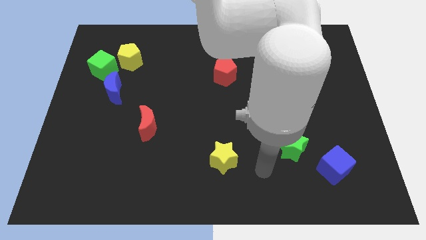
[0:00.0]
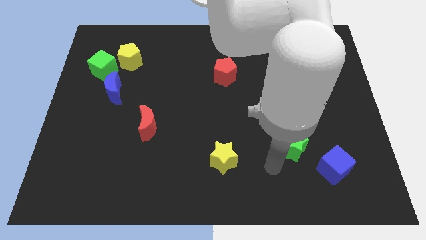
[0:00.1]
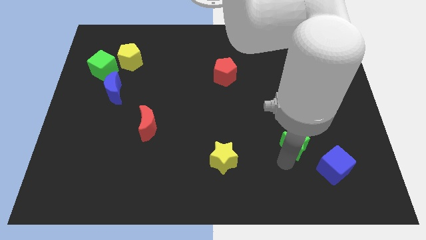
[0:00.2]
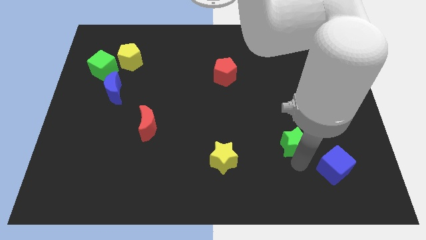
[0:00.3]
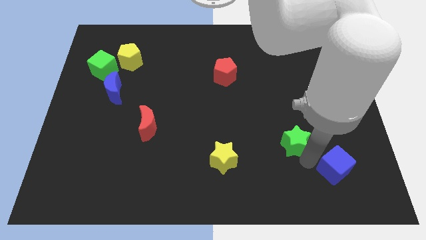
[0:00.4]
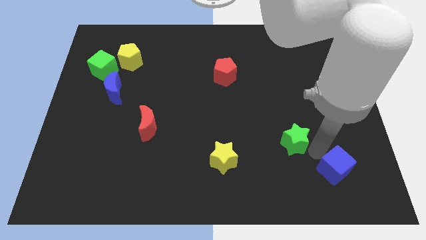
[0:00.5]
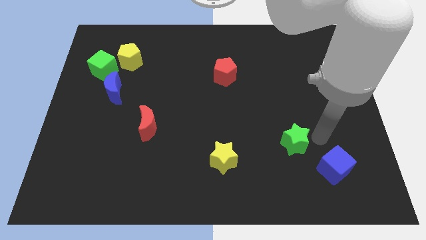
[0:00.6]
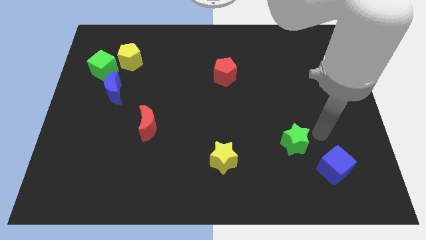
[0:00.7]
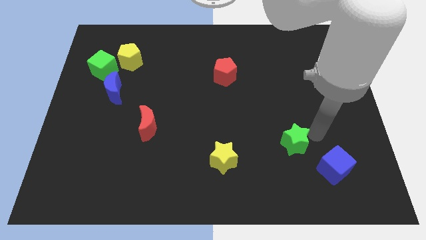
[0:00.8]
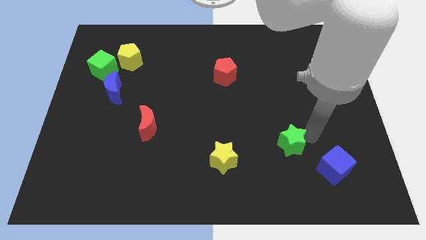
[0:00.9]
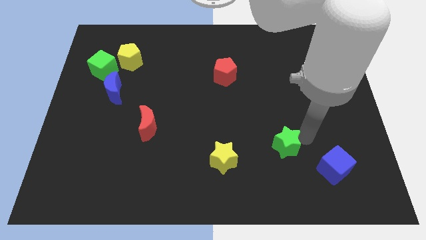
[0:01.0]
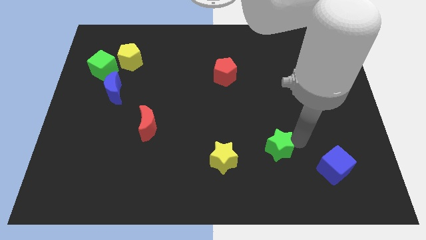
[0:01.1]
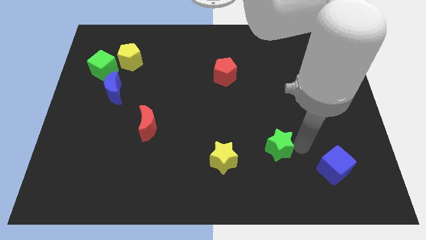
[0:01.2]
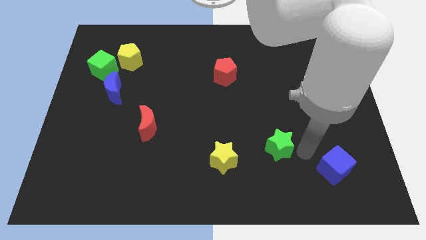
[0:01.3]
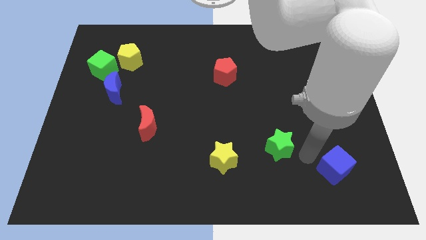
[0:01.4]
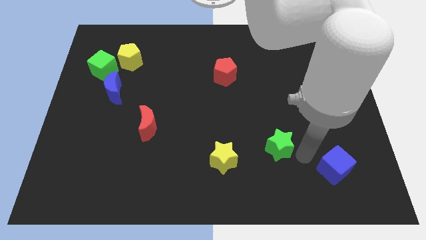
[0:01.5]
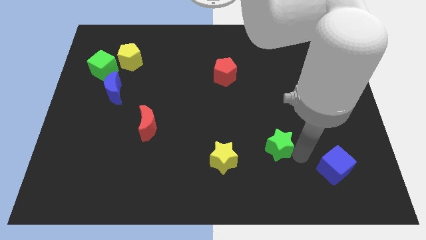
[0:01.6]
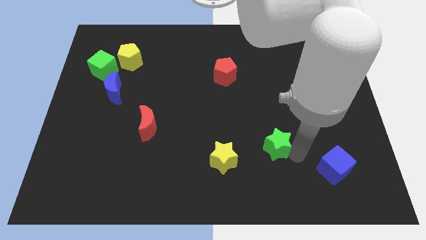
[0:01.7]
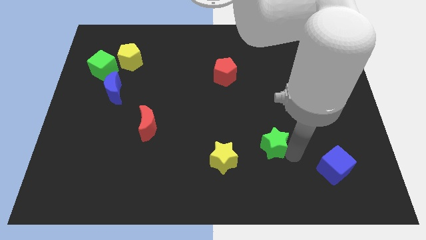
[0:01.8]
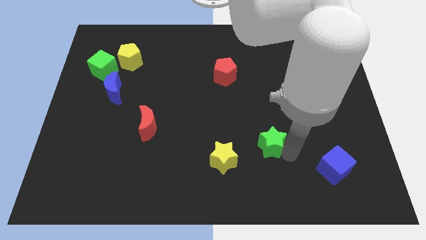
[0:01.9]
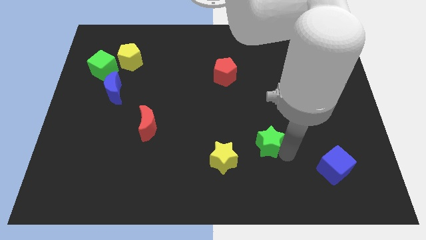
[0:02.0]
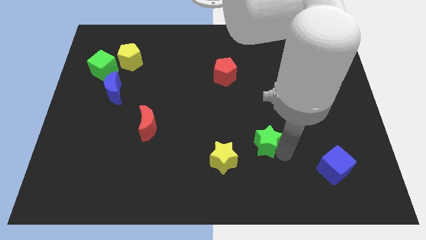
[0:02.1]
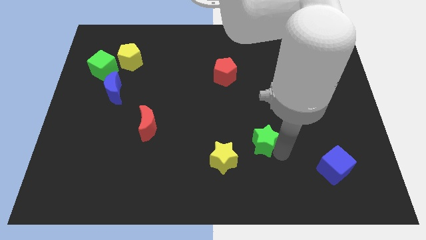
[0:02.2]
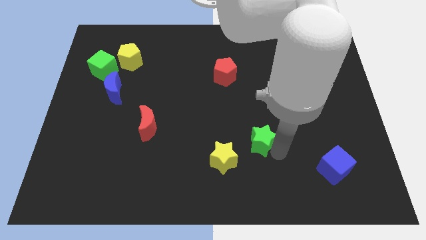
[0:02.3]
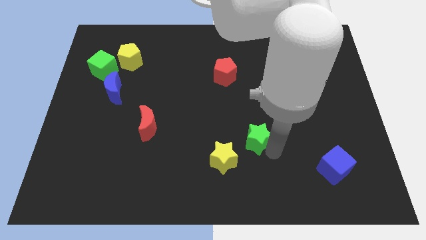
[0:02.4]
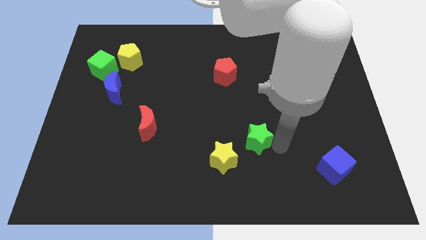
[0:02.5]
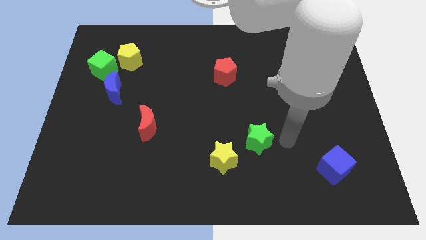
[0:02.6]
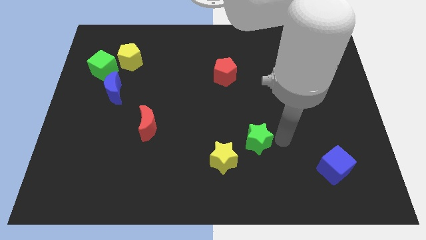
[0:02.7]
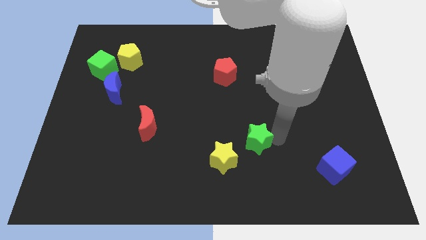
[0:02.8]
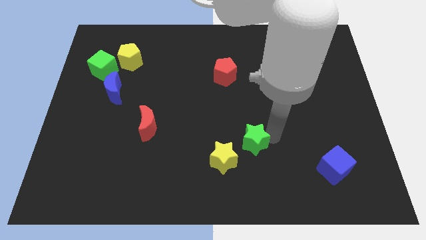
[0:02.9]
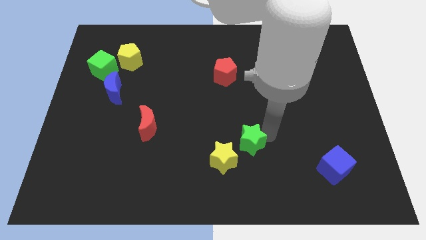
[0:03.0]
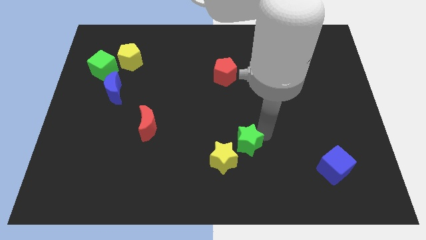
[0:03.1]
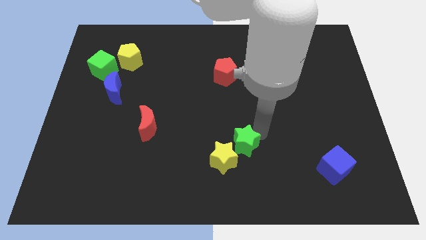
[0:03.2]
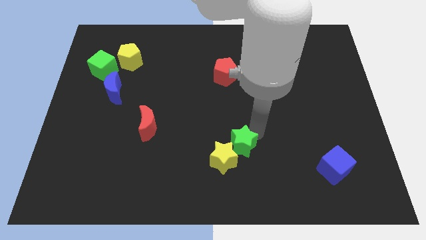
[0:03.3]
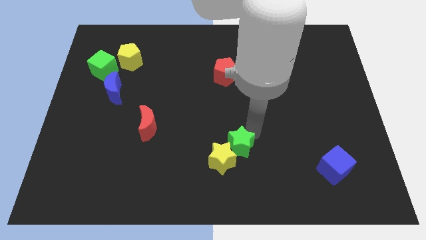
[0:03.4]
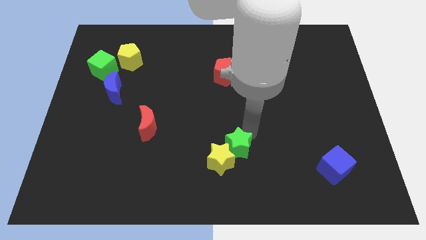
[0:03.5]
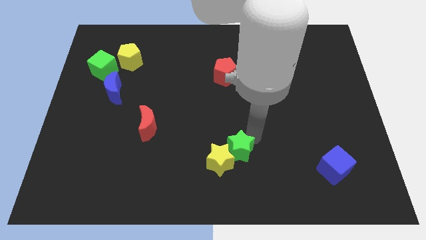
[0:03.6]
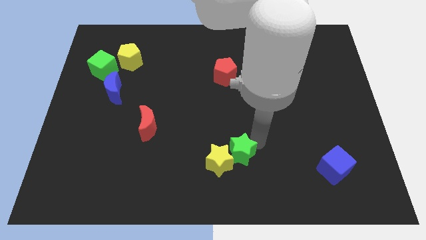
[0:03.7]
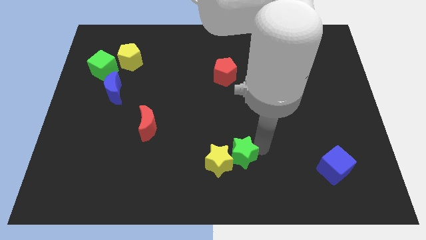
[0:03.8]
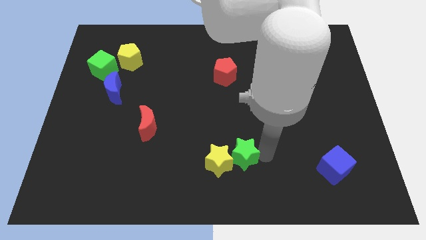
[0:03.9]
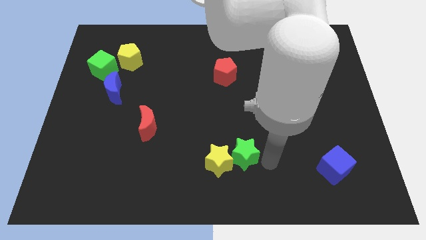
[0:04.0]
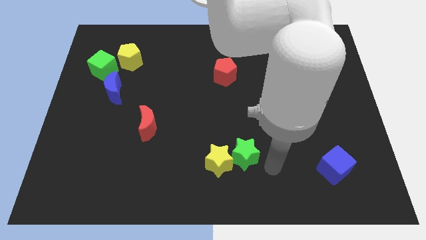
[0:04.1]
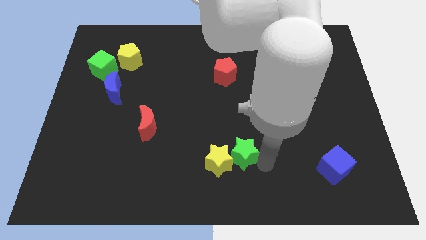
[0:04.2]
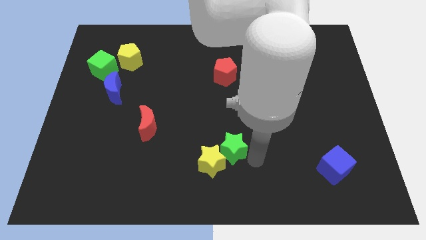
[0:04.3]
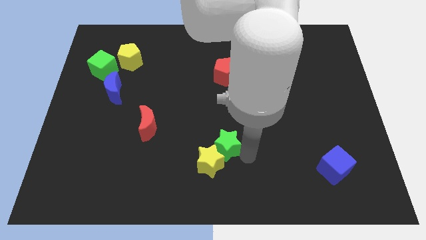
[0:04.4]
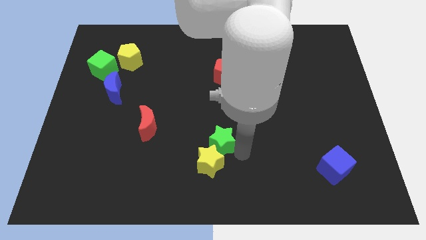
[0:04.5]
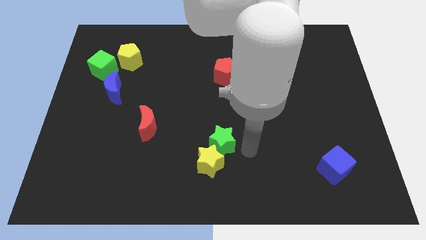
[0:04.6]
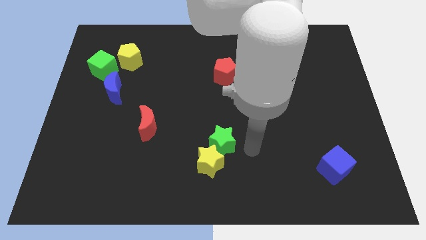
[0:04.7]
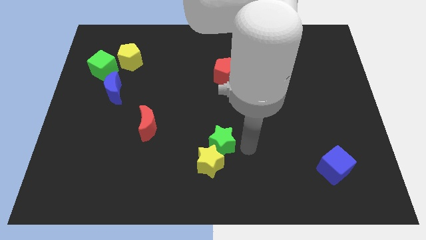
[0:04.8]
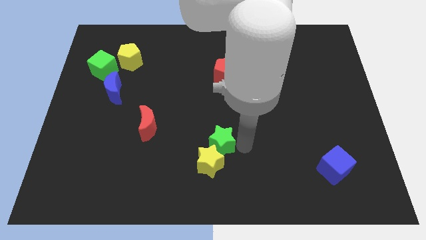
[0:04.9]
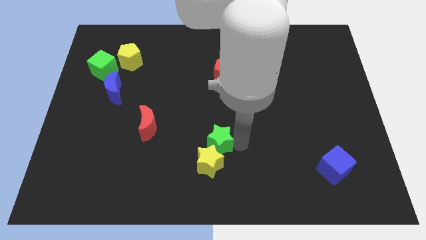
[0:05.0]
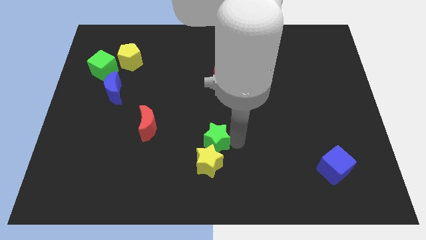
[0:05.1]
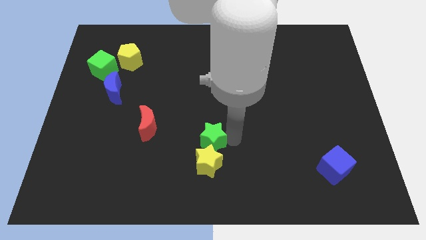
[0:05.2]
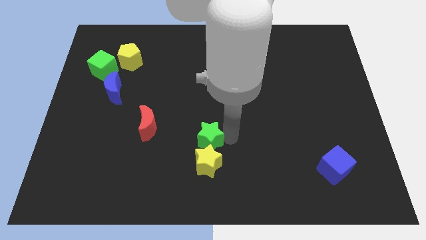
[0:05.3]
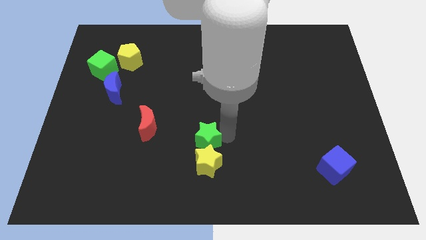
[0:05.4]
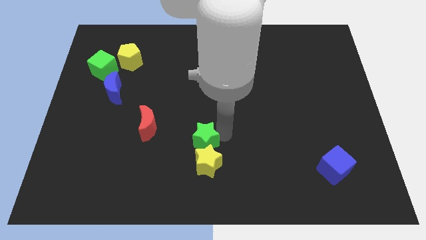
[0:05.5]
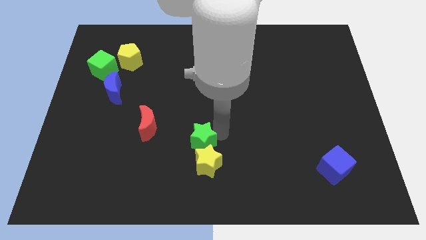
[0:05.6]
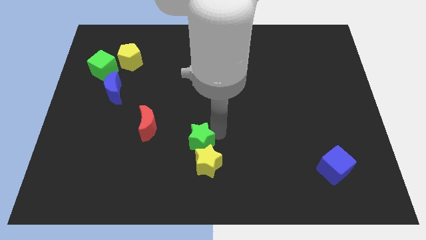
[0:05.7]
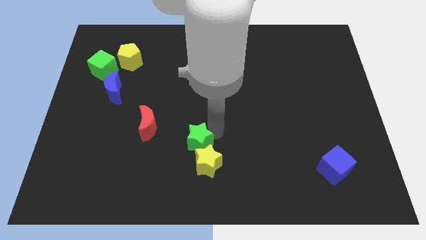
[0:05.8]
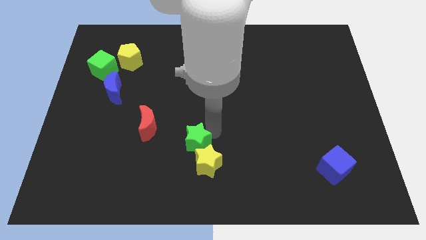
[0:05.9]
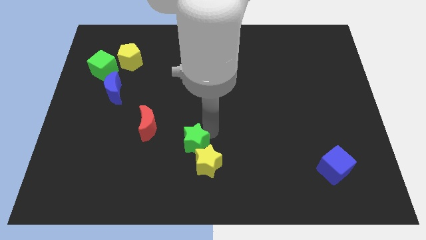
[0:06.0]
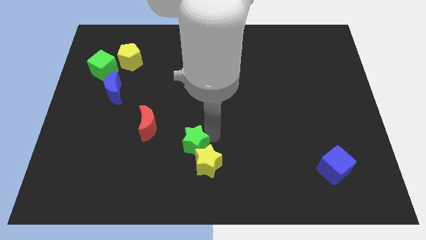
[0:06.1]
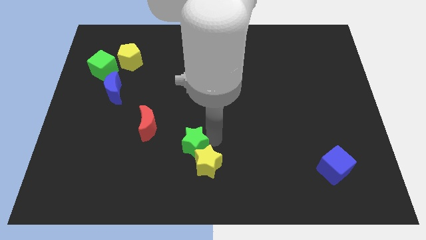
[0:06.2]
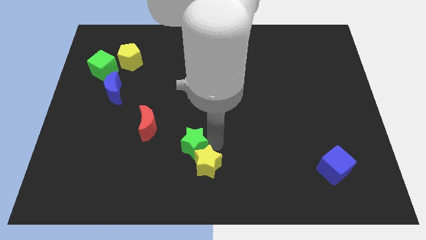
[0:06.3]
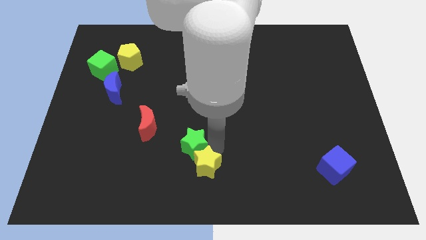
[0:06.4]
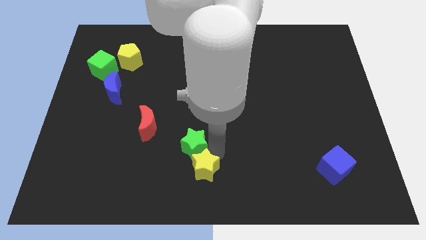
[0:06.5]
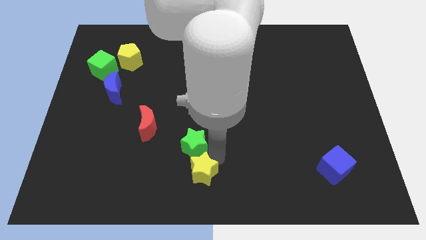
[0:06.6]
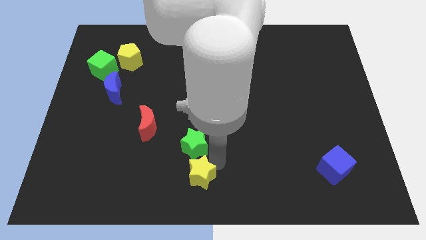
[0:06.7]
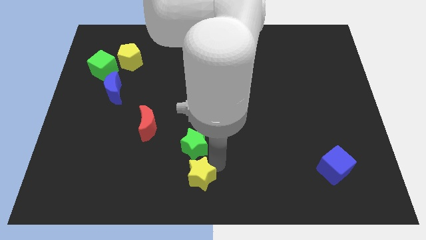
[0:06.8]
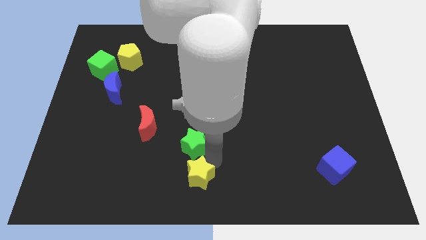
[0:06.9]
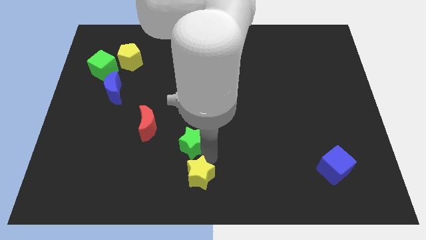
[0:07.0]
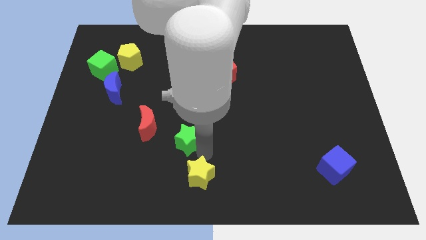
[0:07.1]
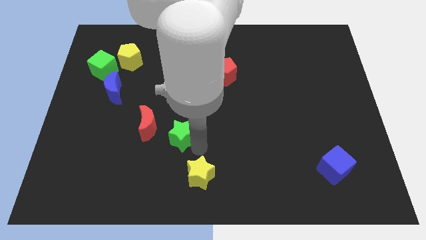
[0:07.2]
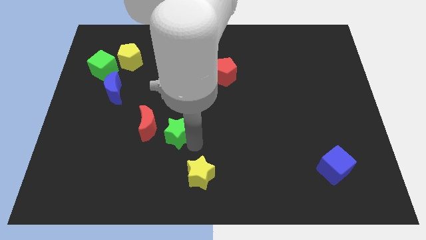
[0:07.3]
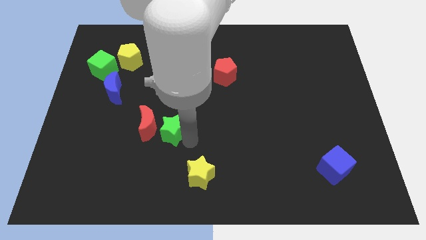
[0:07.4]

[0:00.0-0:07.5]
put the green star to the red moon
